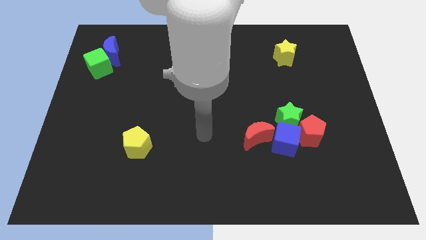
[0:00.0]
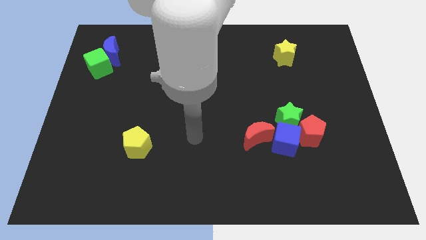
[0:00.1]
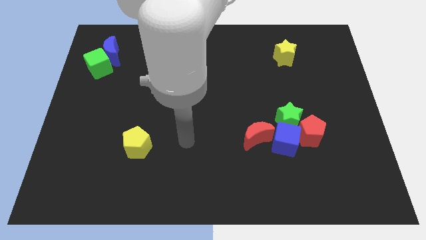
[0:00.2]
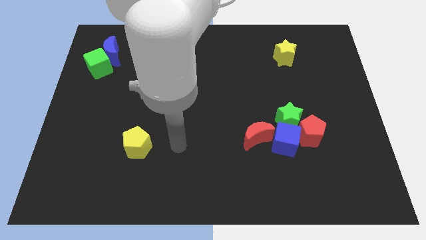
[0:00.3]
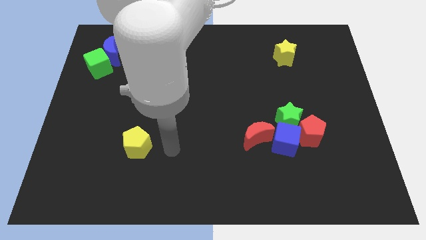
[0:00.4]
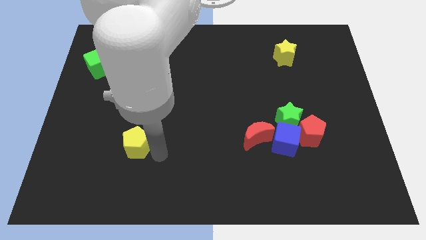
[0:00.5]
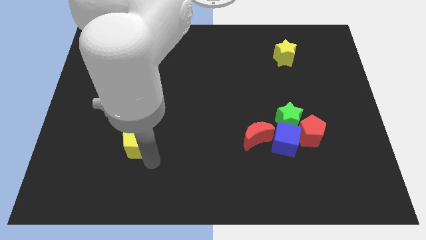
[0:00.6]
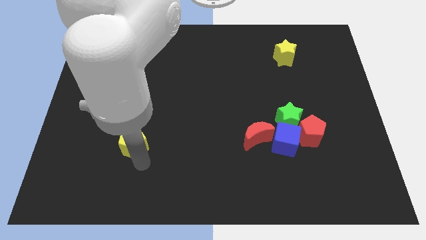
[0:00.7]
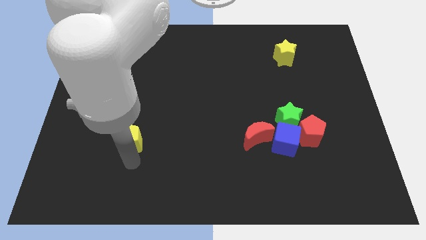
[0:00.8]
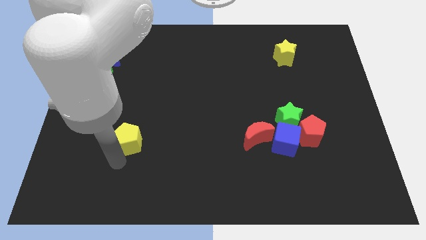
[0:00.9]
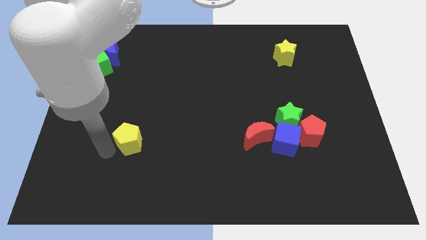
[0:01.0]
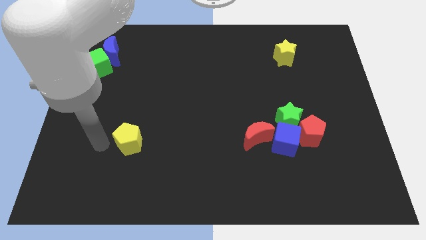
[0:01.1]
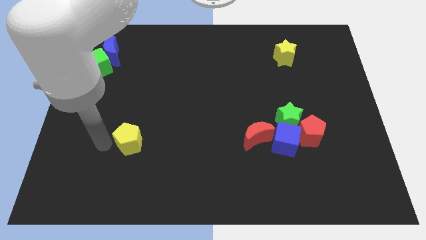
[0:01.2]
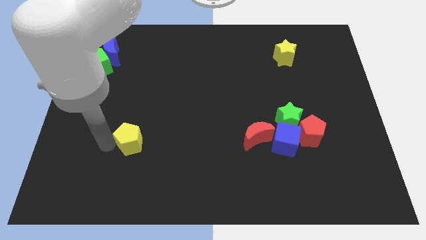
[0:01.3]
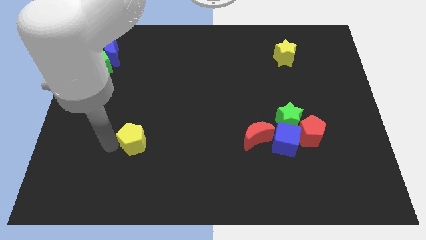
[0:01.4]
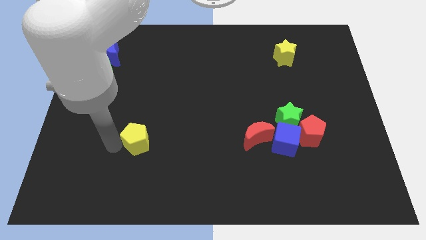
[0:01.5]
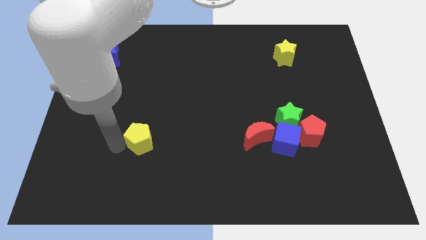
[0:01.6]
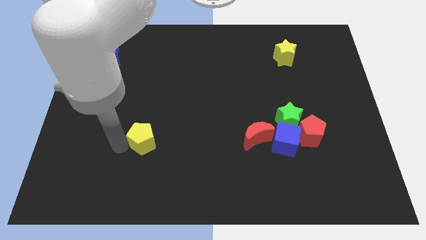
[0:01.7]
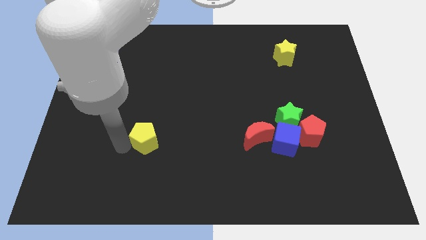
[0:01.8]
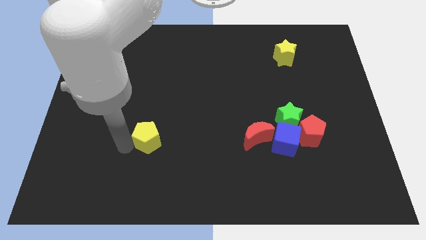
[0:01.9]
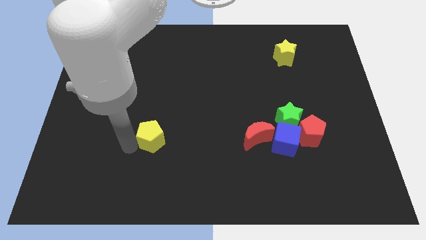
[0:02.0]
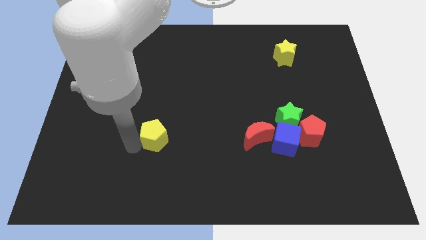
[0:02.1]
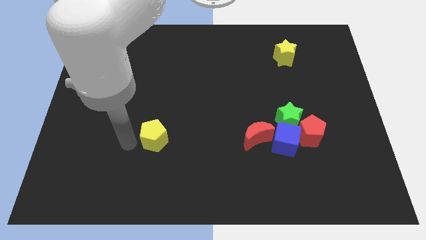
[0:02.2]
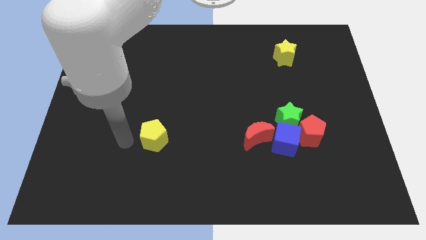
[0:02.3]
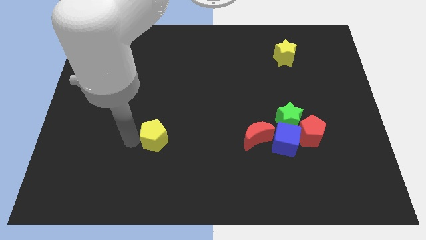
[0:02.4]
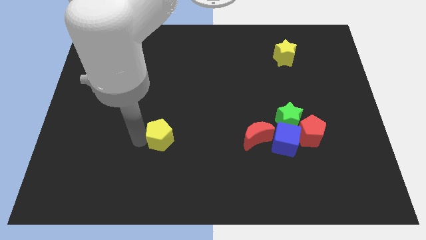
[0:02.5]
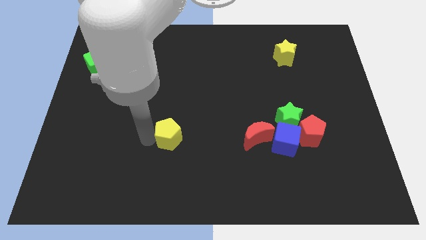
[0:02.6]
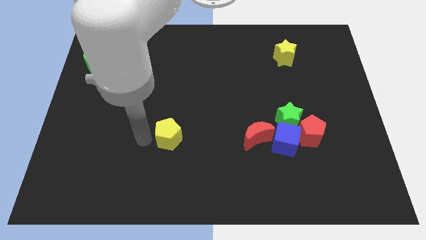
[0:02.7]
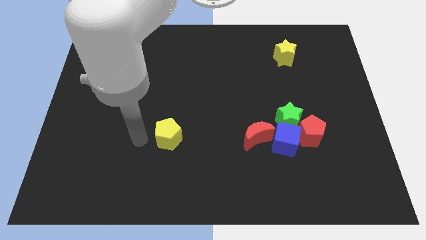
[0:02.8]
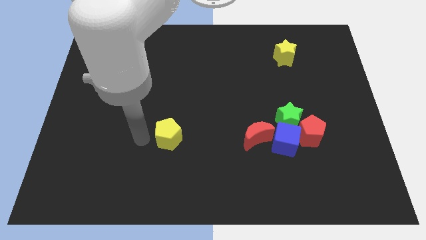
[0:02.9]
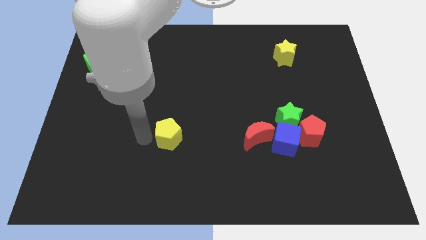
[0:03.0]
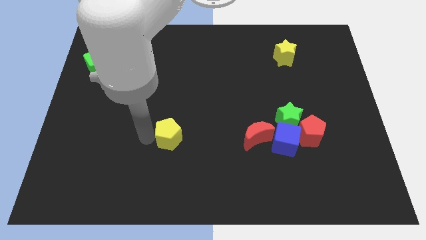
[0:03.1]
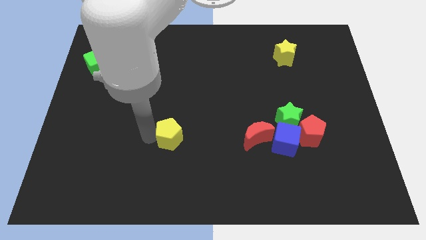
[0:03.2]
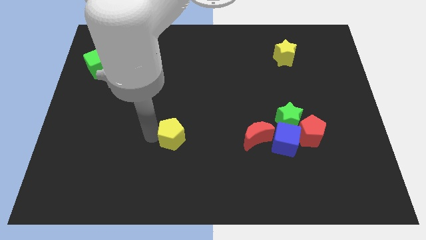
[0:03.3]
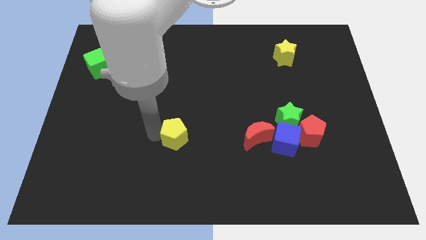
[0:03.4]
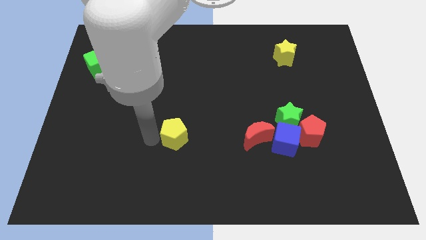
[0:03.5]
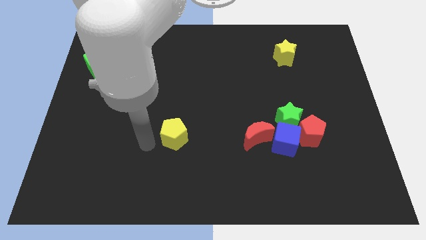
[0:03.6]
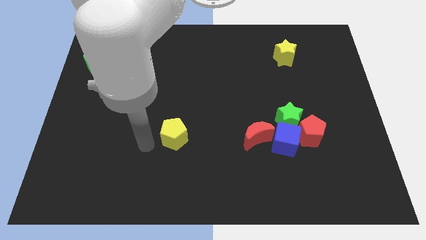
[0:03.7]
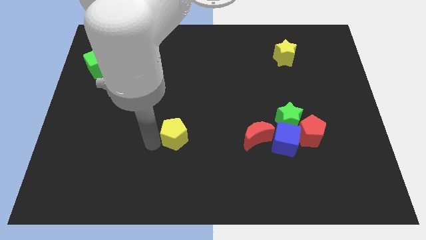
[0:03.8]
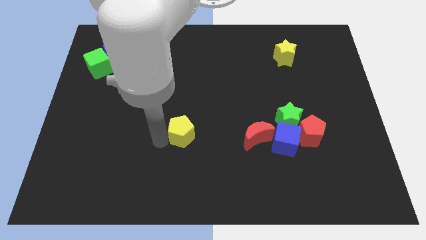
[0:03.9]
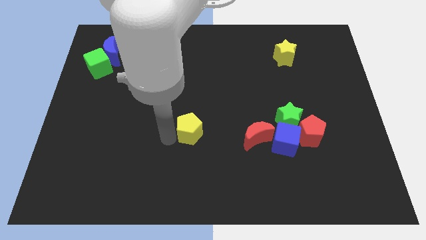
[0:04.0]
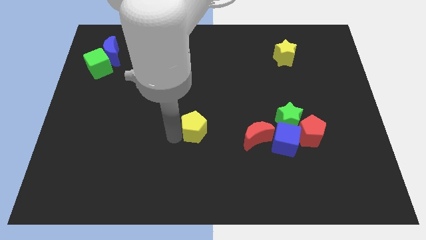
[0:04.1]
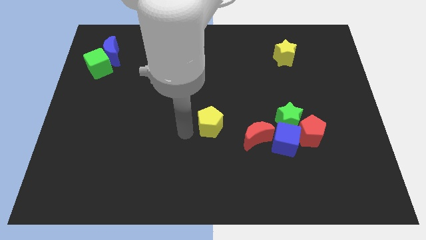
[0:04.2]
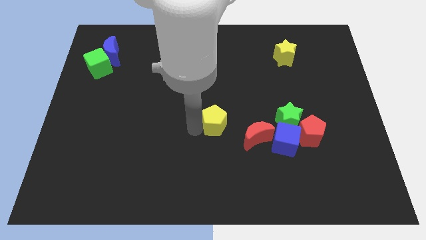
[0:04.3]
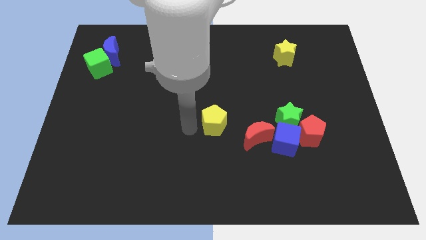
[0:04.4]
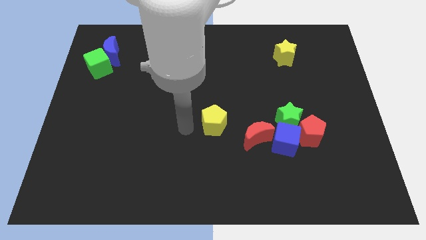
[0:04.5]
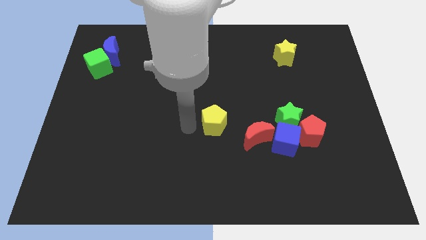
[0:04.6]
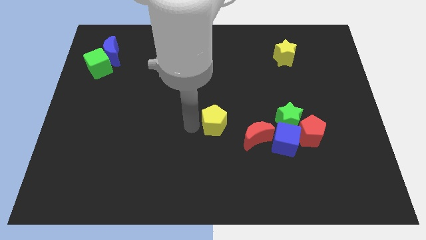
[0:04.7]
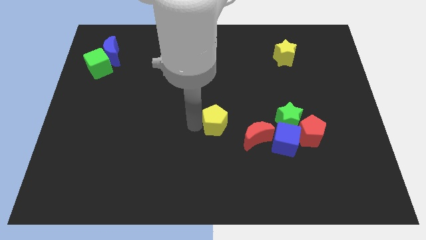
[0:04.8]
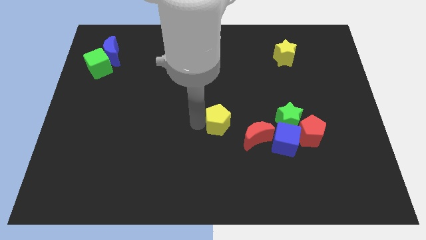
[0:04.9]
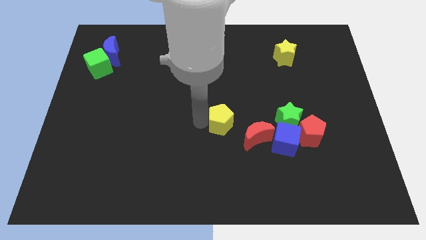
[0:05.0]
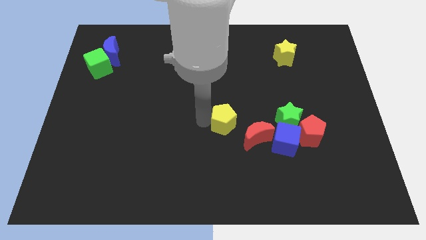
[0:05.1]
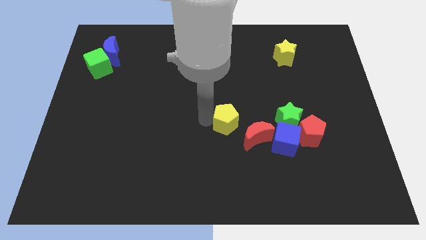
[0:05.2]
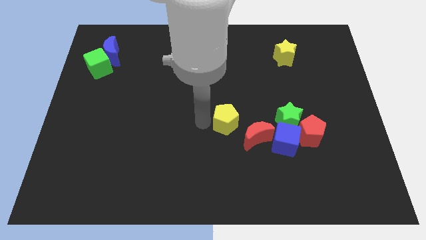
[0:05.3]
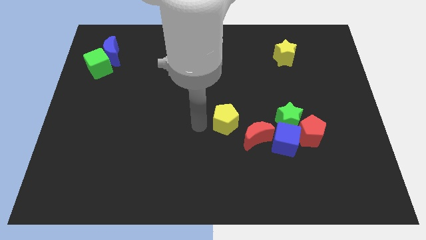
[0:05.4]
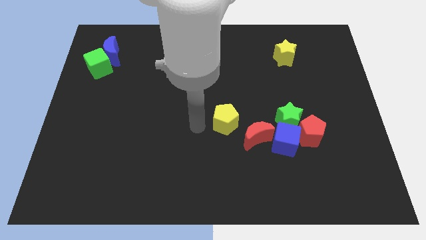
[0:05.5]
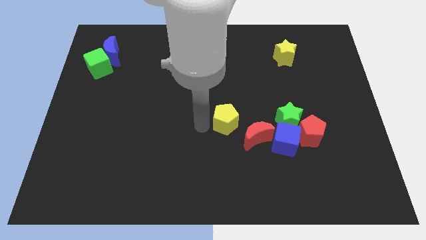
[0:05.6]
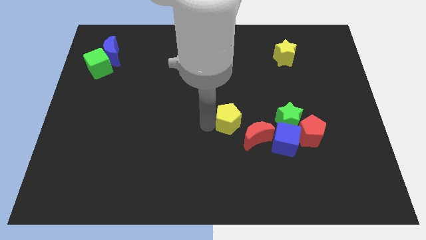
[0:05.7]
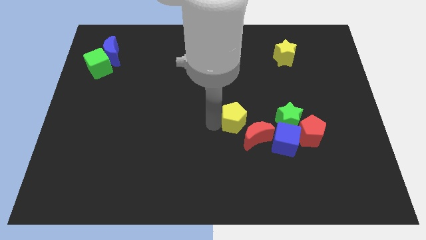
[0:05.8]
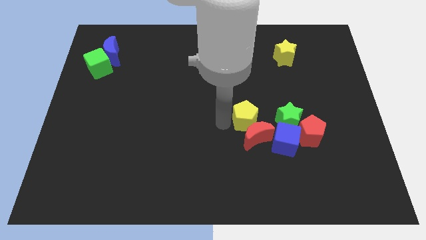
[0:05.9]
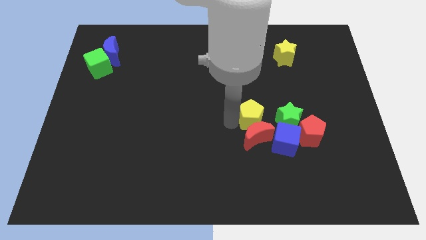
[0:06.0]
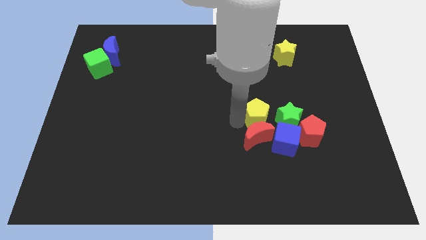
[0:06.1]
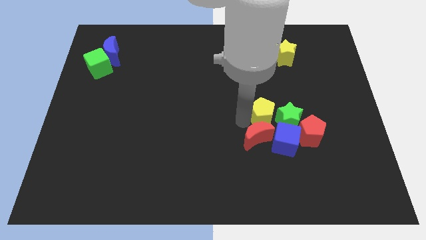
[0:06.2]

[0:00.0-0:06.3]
slide the yellow pentagon above the blue cube

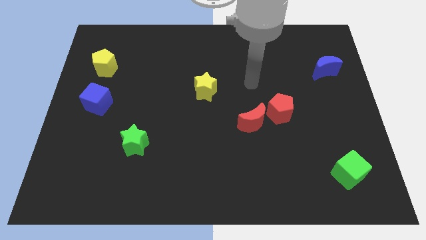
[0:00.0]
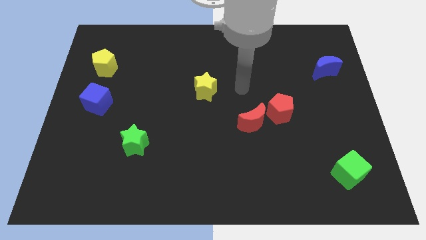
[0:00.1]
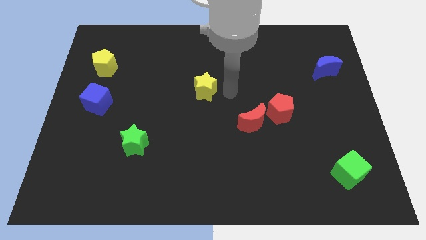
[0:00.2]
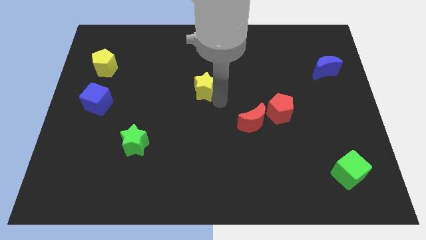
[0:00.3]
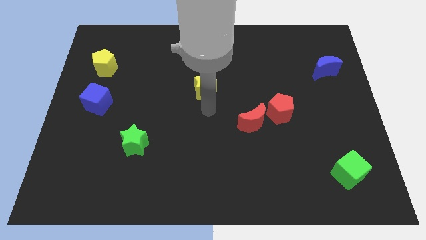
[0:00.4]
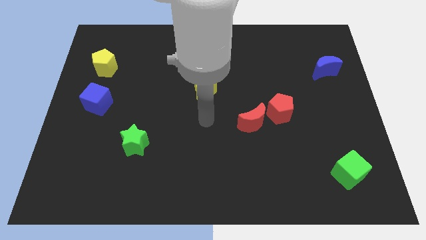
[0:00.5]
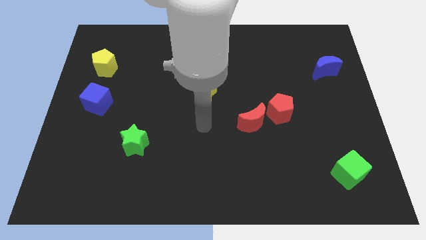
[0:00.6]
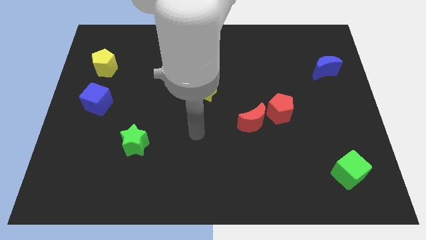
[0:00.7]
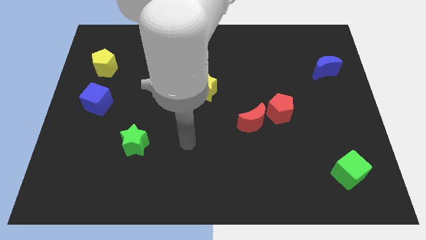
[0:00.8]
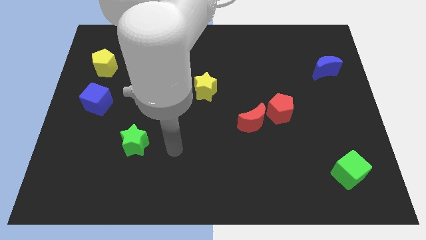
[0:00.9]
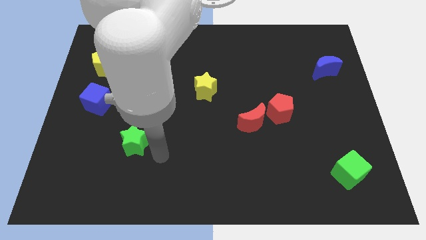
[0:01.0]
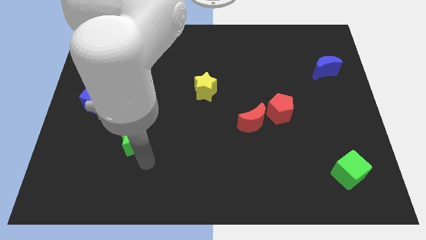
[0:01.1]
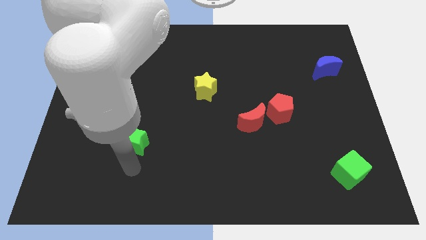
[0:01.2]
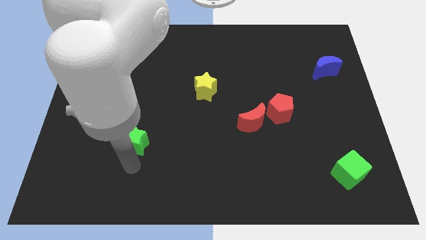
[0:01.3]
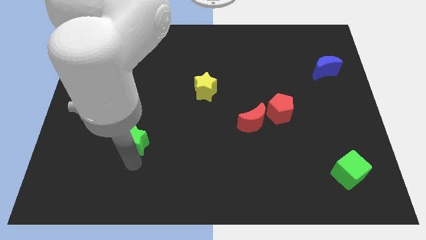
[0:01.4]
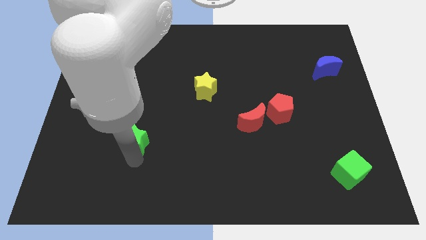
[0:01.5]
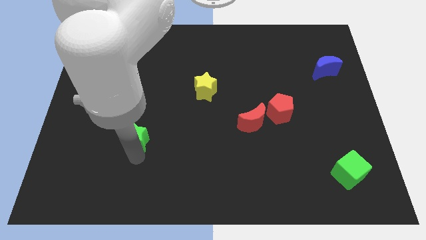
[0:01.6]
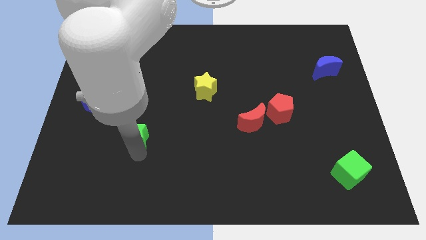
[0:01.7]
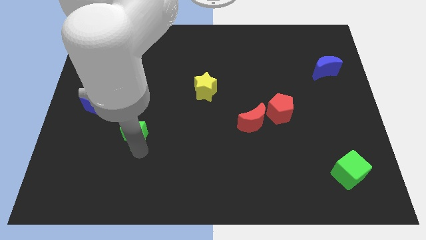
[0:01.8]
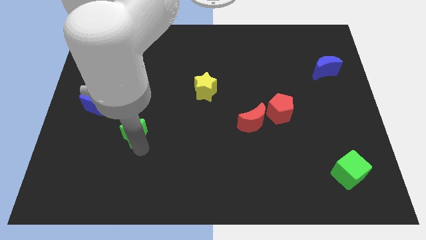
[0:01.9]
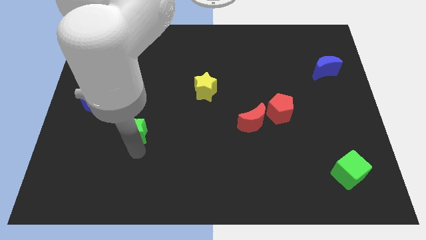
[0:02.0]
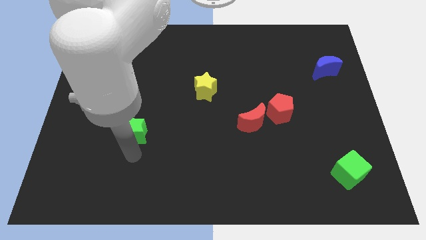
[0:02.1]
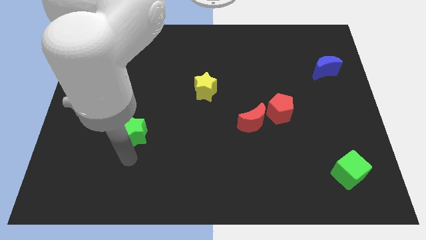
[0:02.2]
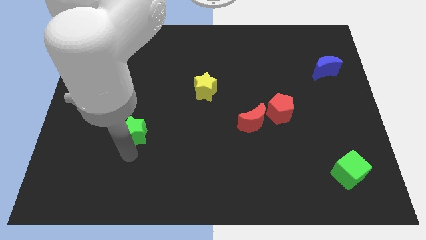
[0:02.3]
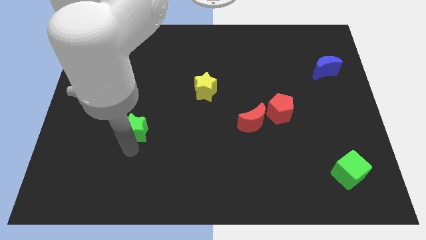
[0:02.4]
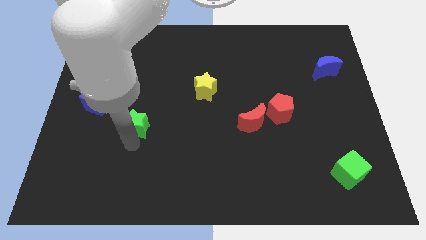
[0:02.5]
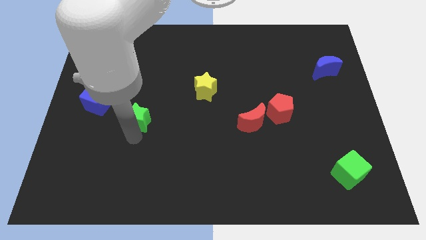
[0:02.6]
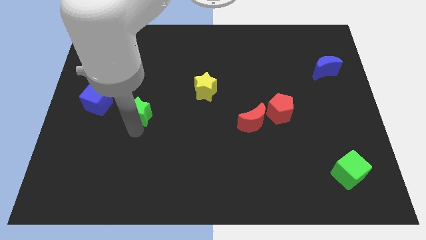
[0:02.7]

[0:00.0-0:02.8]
move the green star just right of the blue cube
